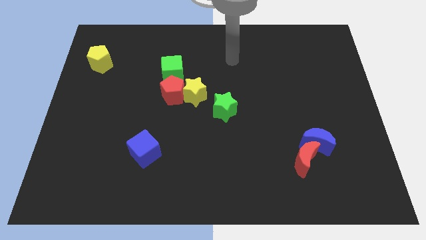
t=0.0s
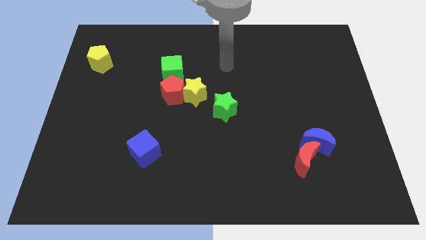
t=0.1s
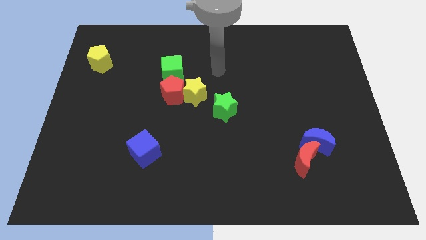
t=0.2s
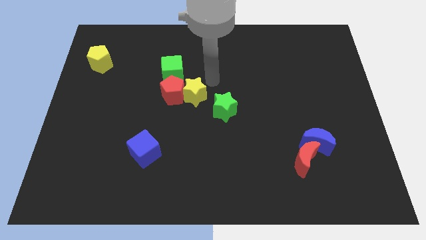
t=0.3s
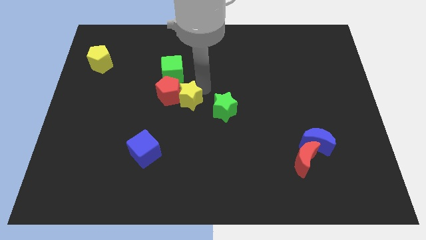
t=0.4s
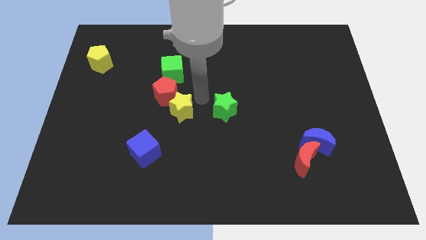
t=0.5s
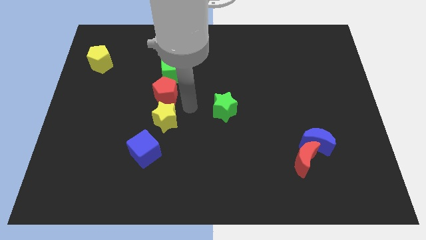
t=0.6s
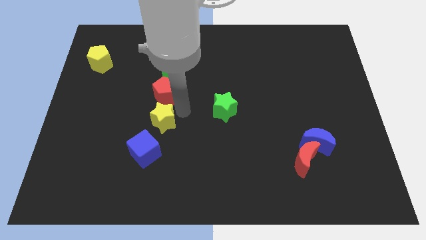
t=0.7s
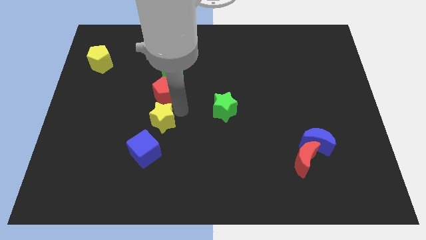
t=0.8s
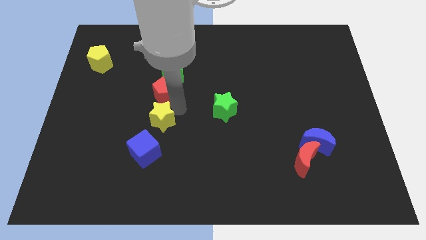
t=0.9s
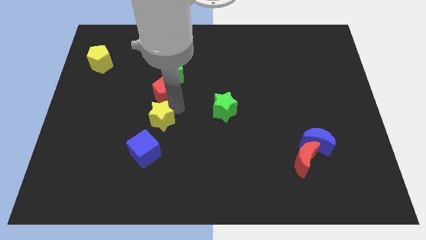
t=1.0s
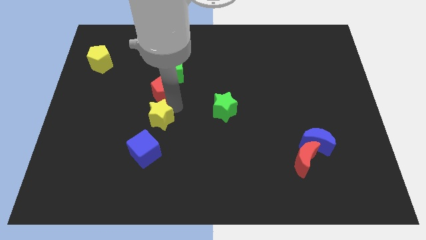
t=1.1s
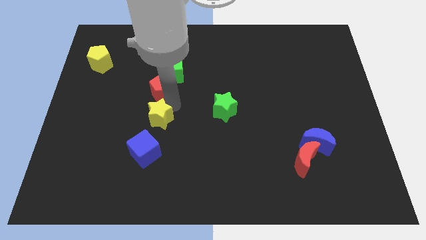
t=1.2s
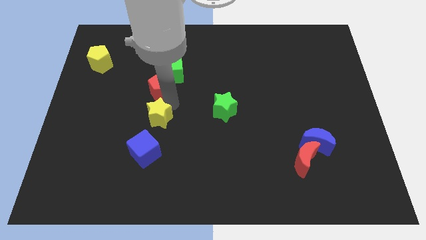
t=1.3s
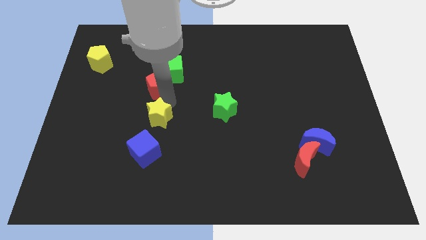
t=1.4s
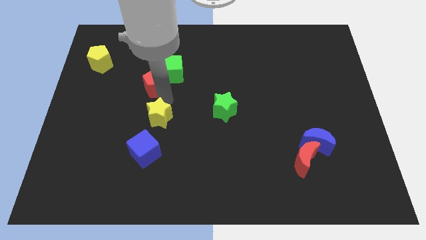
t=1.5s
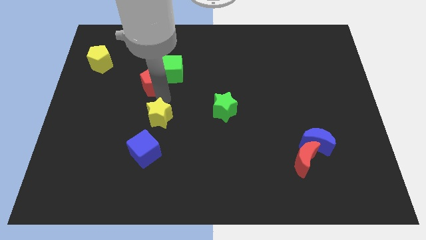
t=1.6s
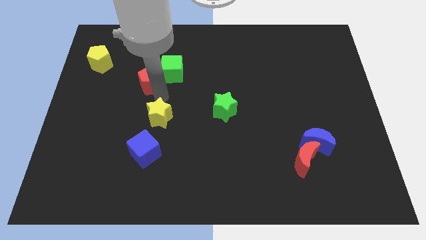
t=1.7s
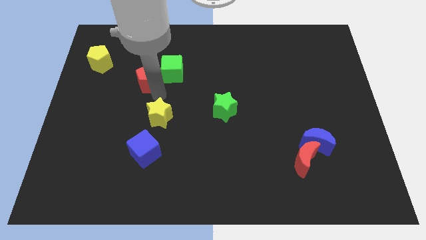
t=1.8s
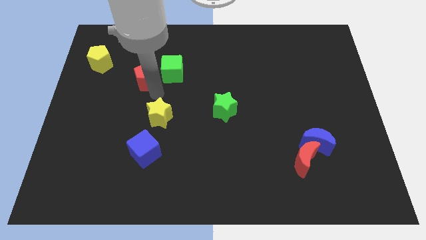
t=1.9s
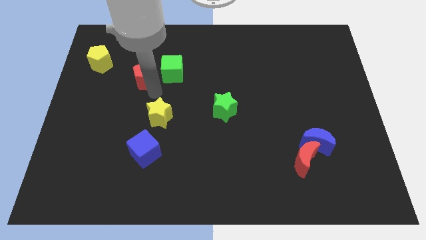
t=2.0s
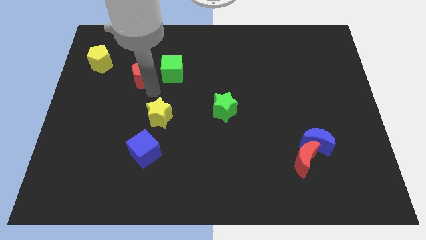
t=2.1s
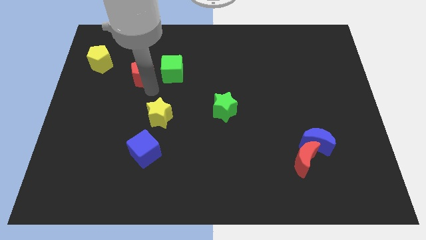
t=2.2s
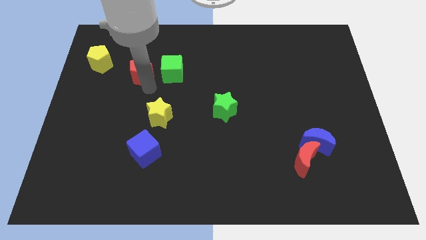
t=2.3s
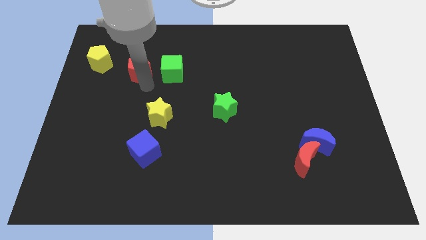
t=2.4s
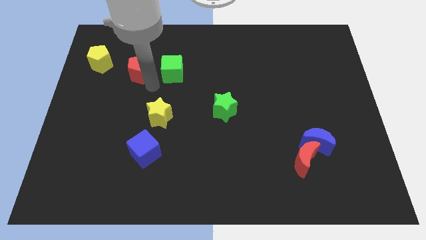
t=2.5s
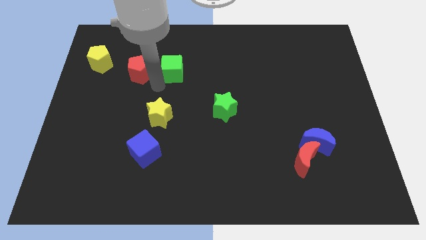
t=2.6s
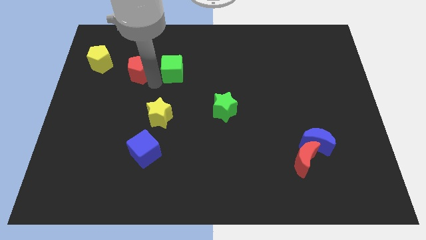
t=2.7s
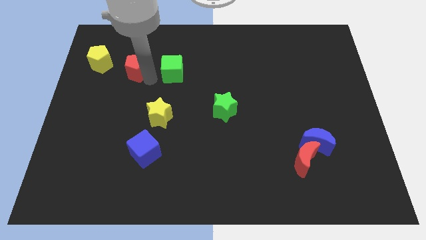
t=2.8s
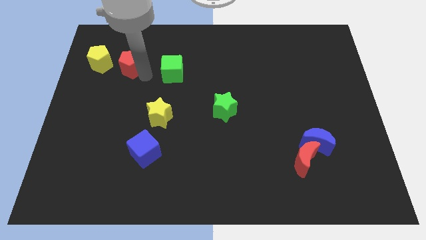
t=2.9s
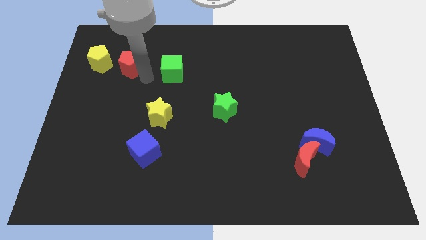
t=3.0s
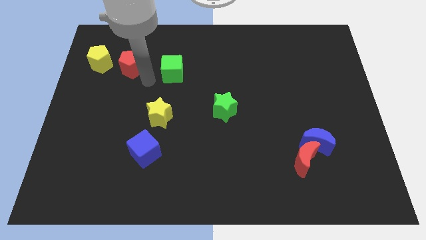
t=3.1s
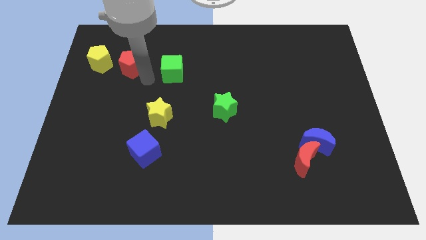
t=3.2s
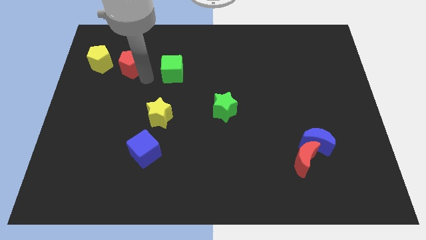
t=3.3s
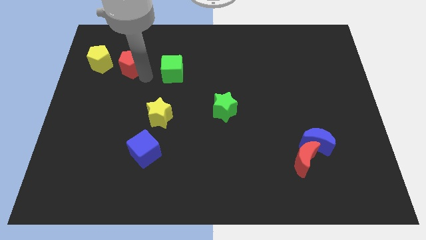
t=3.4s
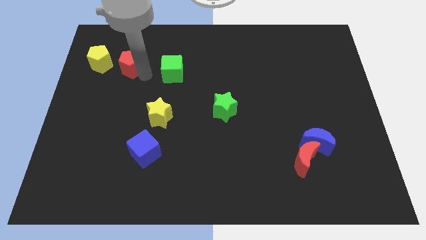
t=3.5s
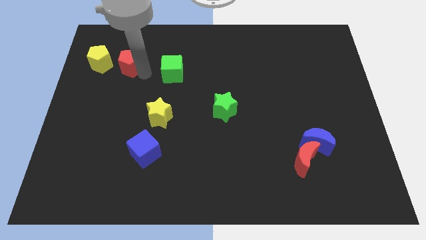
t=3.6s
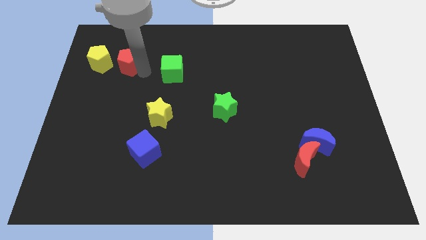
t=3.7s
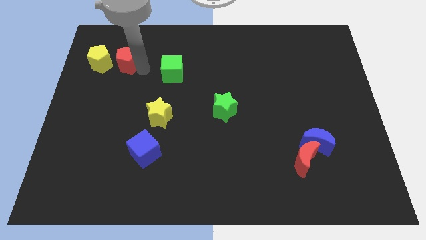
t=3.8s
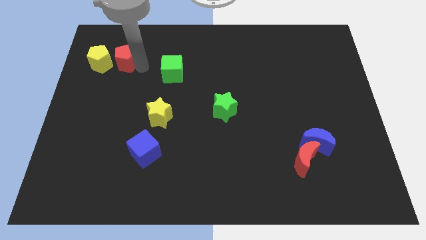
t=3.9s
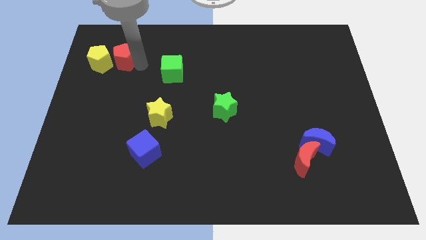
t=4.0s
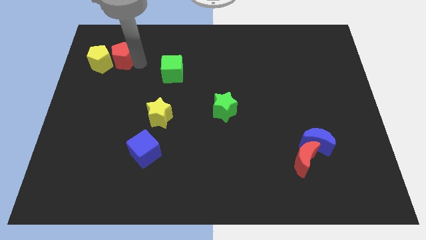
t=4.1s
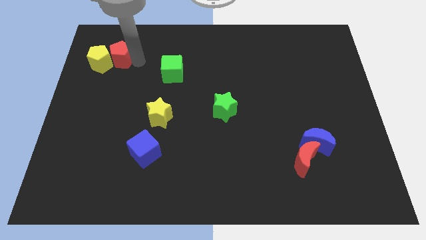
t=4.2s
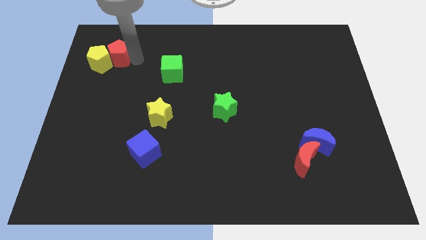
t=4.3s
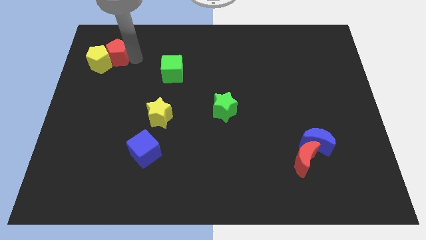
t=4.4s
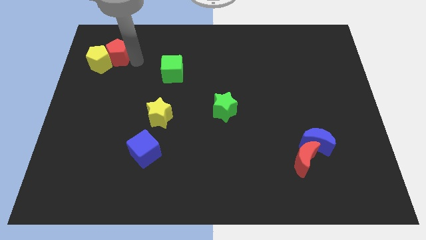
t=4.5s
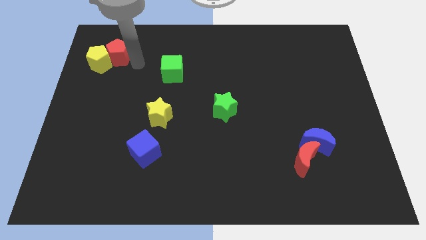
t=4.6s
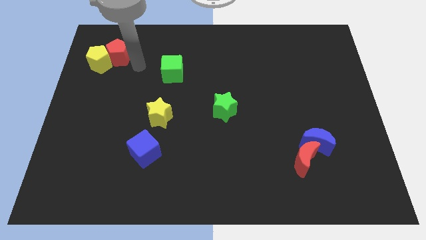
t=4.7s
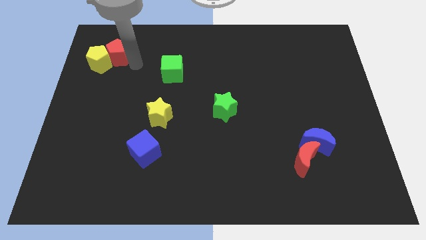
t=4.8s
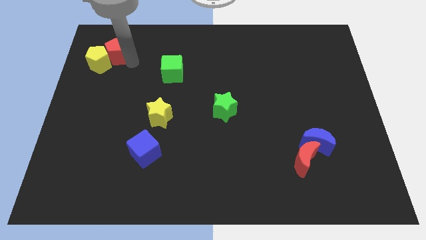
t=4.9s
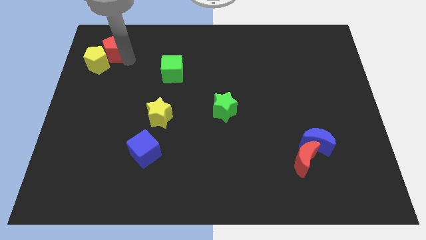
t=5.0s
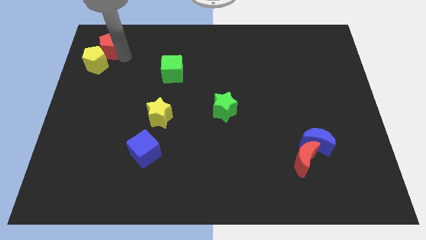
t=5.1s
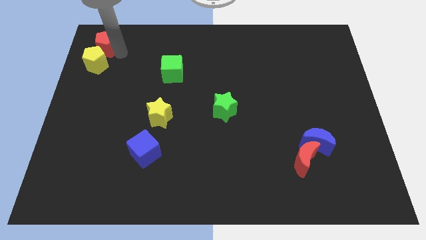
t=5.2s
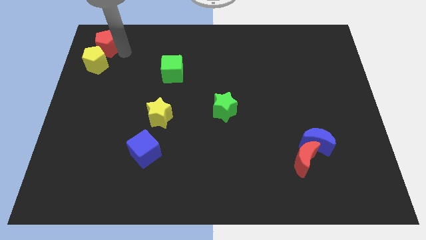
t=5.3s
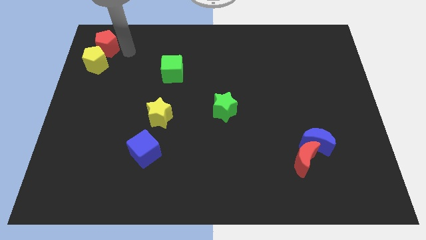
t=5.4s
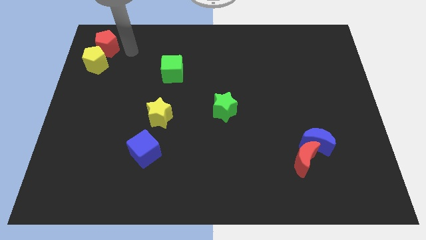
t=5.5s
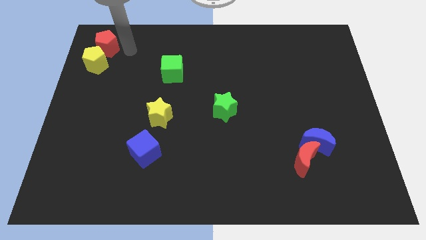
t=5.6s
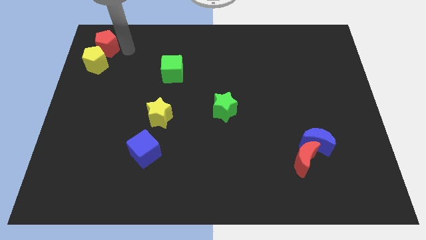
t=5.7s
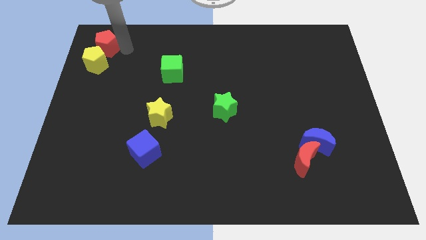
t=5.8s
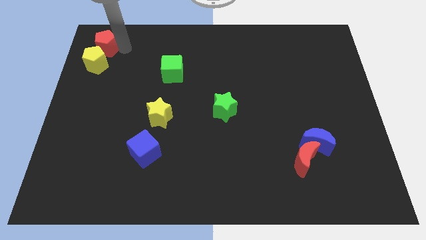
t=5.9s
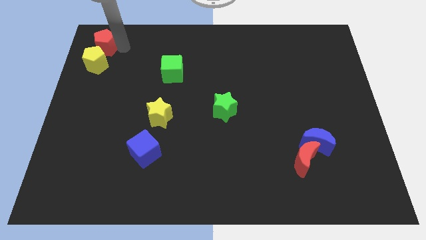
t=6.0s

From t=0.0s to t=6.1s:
put the red pentagon to the upper left corner

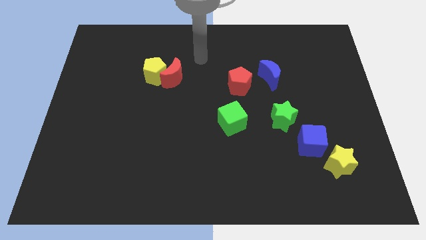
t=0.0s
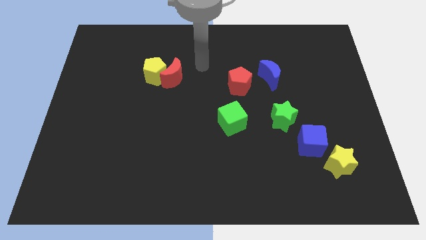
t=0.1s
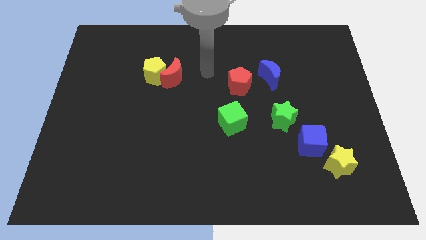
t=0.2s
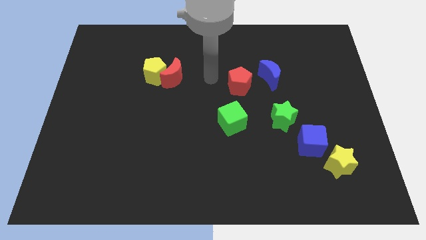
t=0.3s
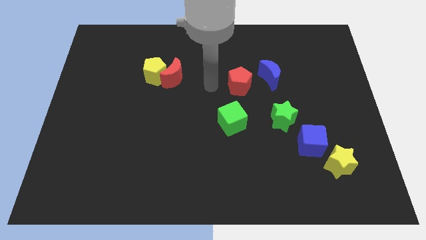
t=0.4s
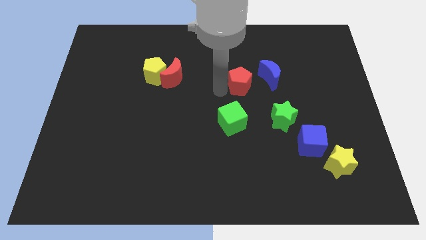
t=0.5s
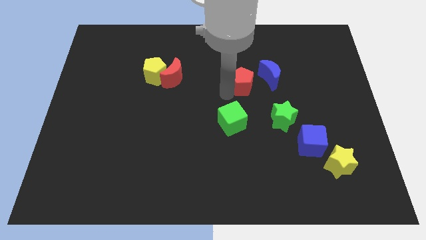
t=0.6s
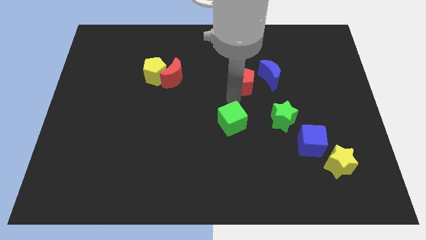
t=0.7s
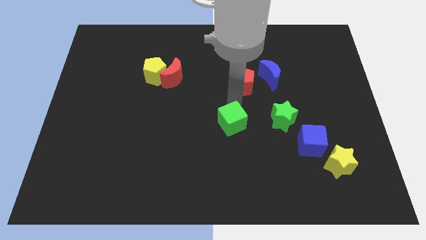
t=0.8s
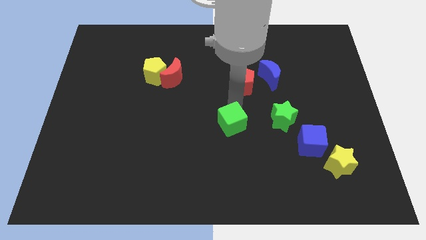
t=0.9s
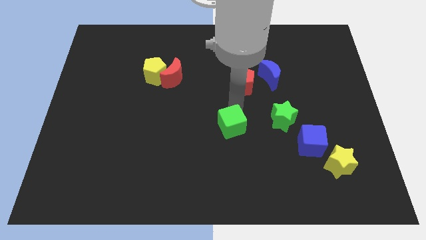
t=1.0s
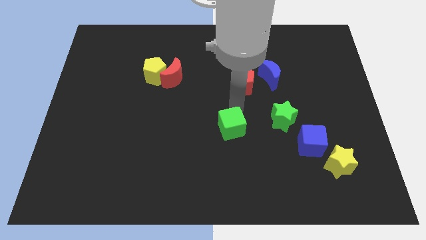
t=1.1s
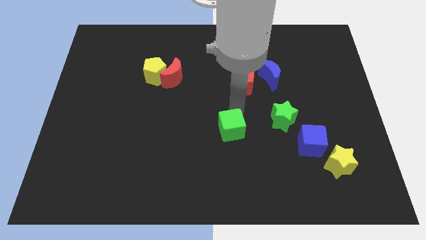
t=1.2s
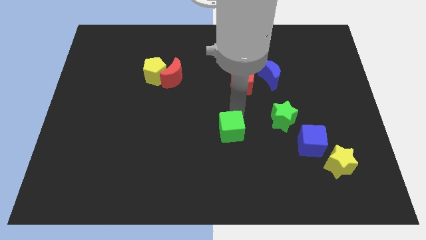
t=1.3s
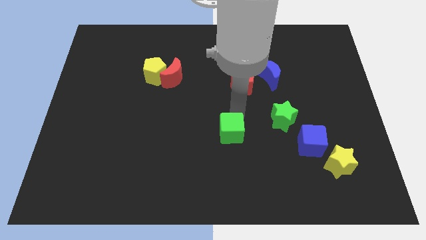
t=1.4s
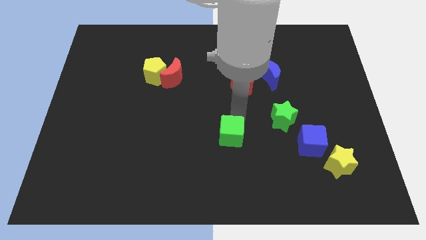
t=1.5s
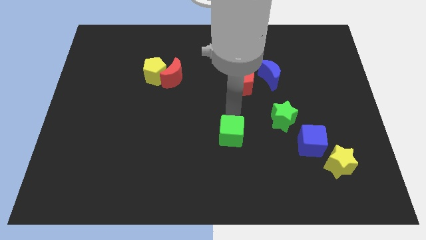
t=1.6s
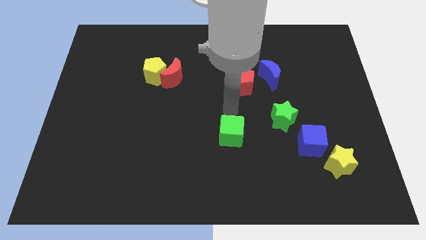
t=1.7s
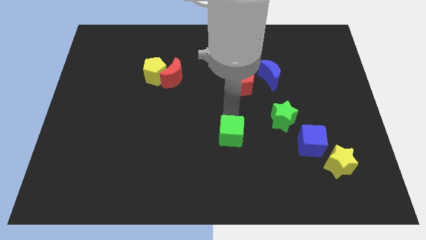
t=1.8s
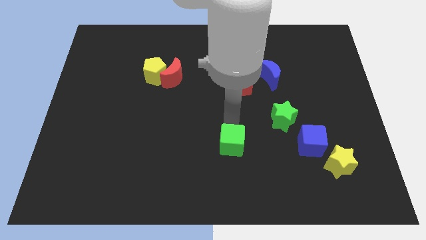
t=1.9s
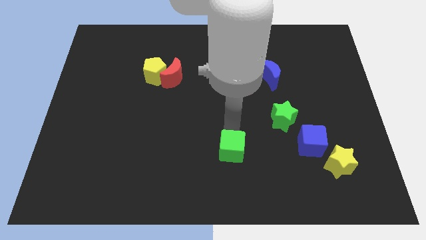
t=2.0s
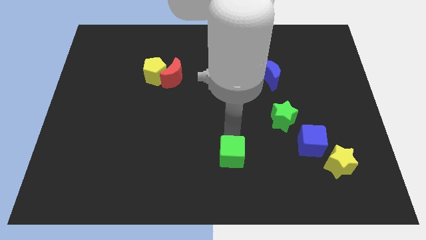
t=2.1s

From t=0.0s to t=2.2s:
push the green cube to the bottom
